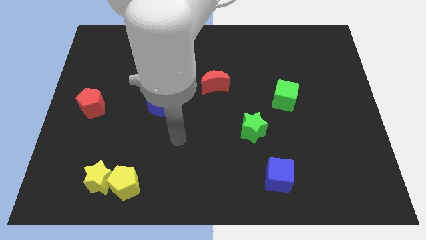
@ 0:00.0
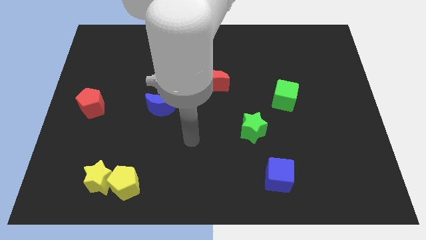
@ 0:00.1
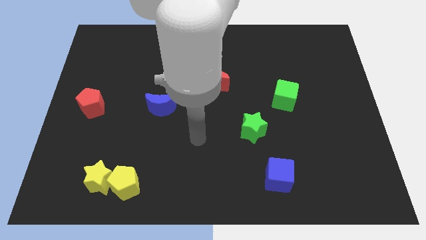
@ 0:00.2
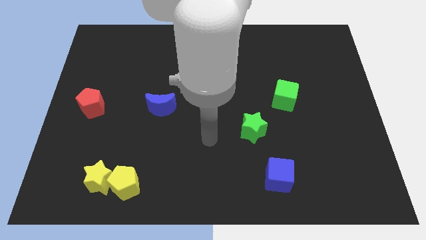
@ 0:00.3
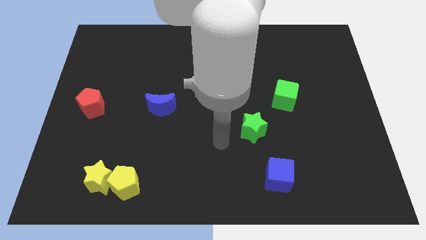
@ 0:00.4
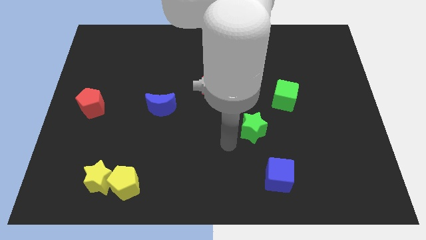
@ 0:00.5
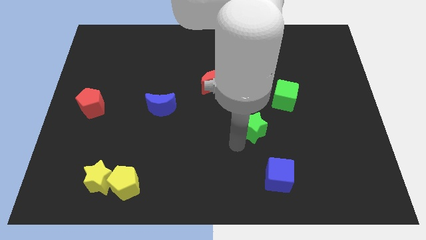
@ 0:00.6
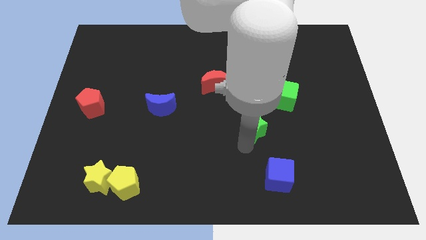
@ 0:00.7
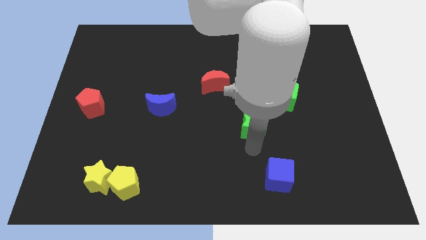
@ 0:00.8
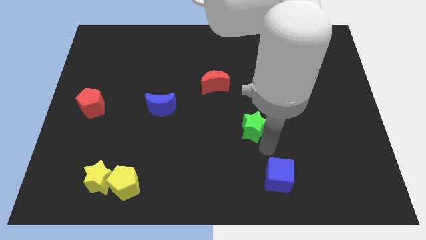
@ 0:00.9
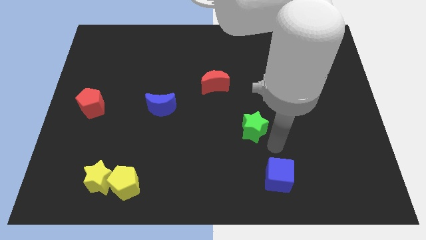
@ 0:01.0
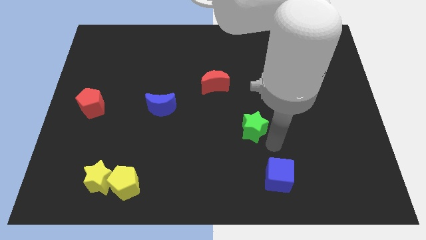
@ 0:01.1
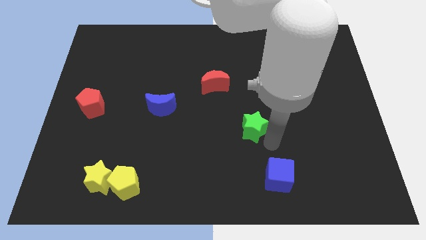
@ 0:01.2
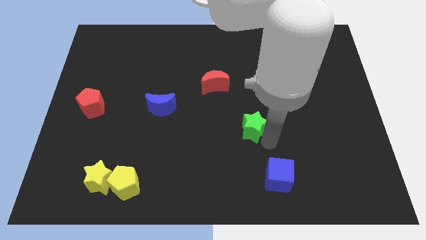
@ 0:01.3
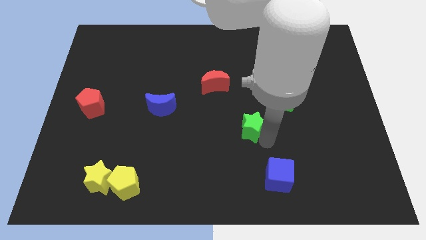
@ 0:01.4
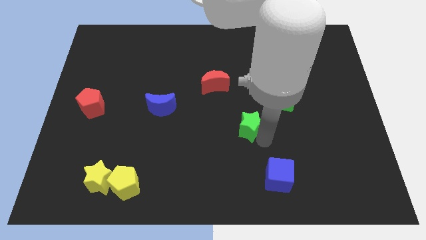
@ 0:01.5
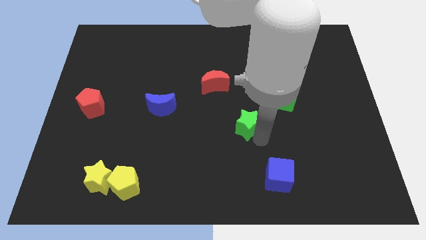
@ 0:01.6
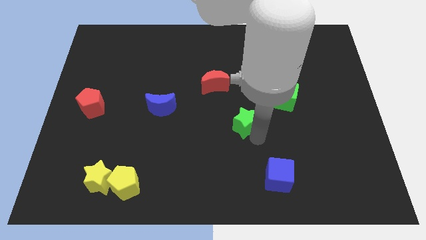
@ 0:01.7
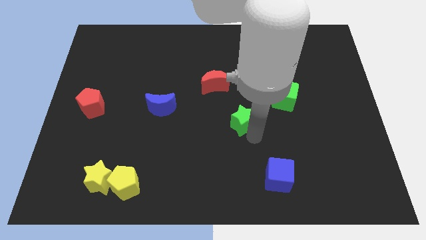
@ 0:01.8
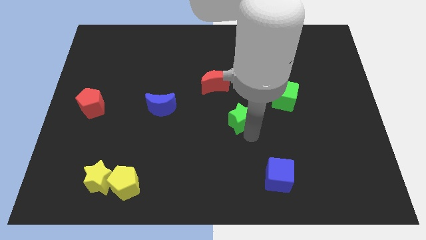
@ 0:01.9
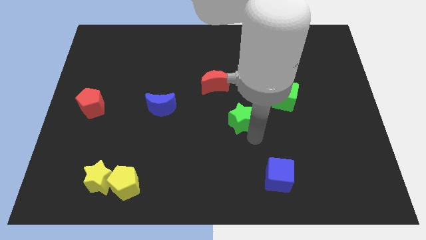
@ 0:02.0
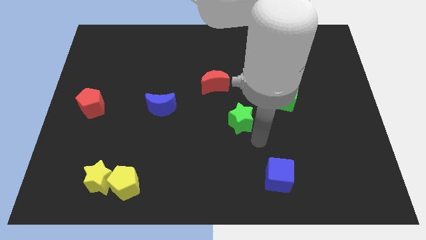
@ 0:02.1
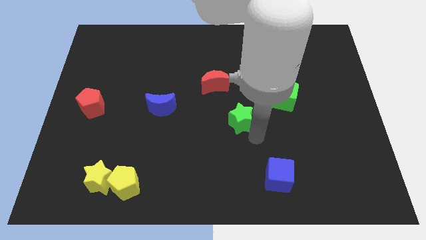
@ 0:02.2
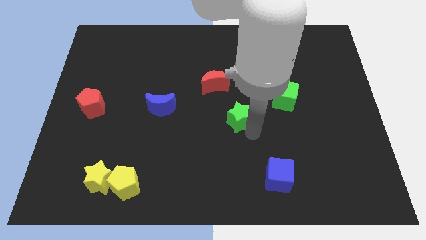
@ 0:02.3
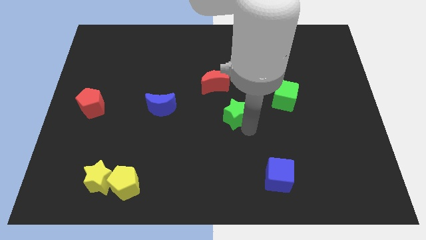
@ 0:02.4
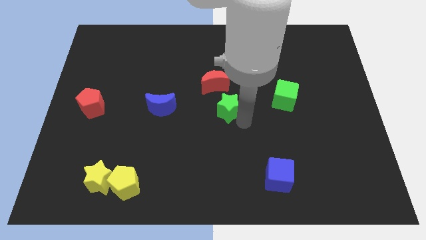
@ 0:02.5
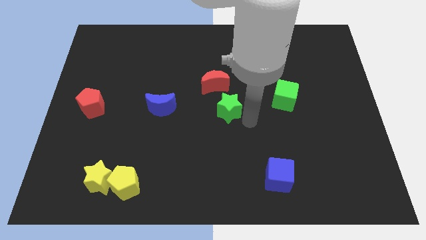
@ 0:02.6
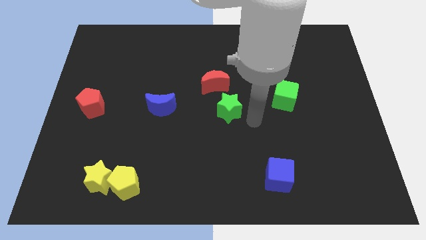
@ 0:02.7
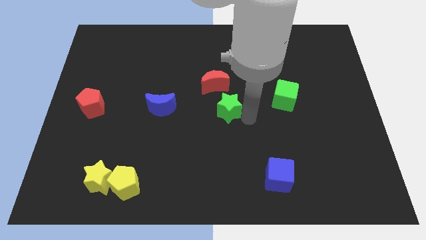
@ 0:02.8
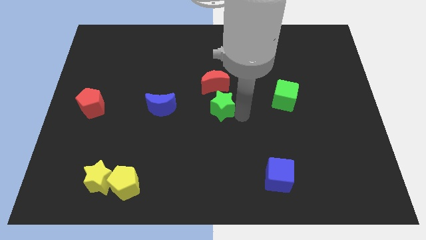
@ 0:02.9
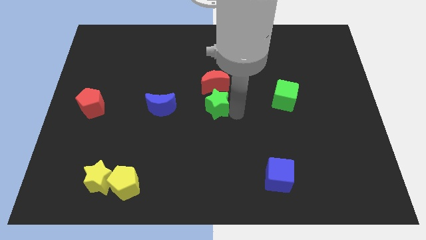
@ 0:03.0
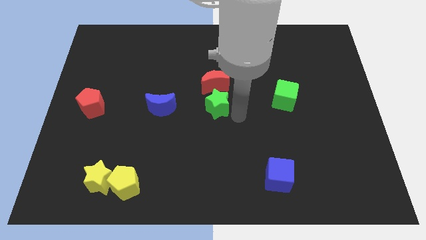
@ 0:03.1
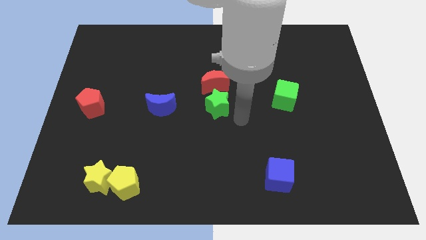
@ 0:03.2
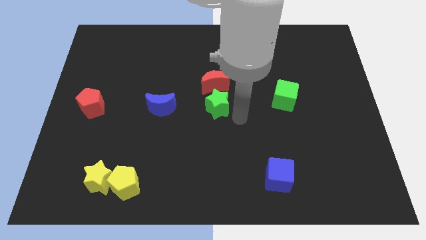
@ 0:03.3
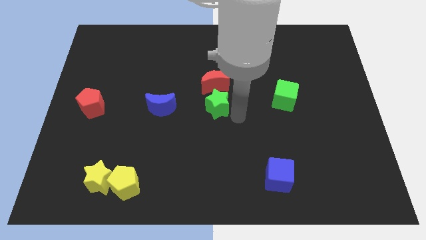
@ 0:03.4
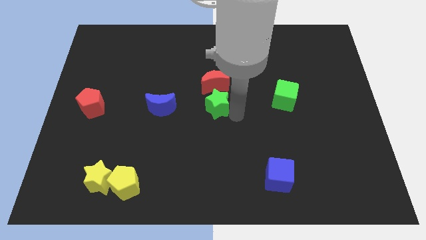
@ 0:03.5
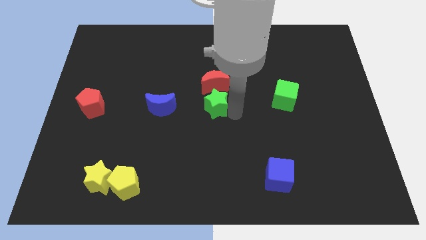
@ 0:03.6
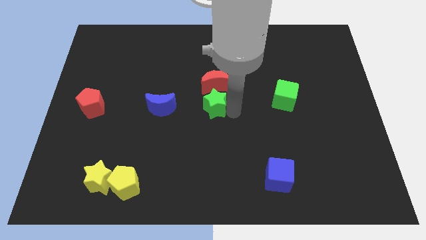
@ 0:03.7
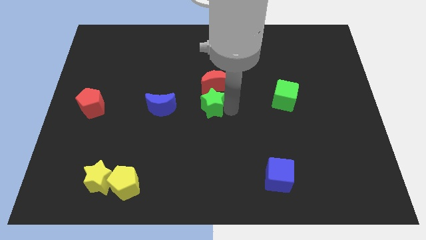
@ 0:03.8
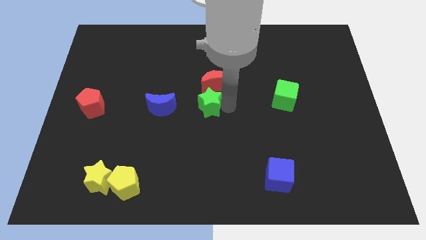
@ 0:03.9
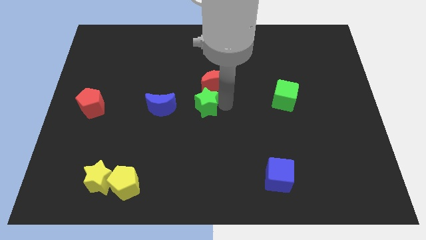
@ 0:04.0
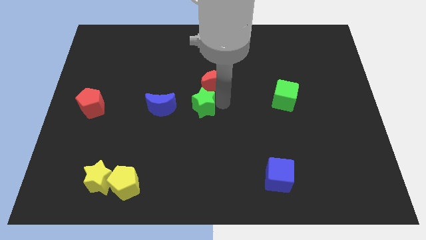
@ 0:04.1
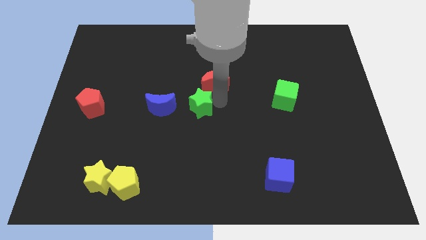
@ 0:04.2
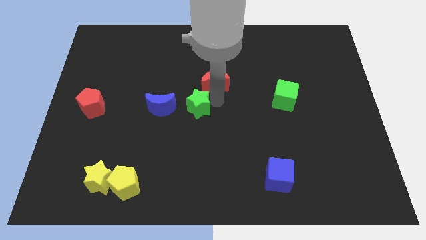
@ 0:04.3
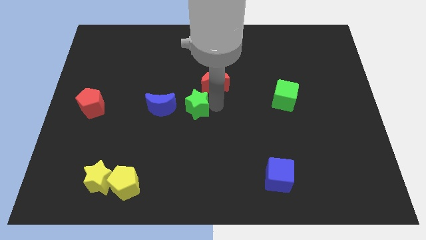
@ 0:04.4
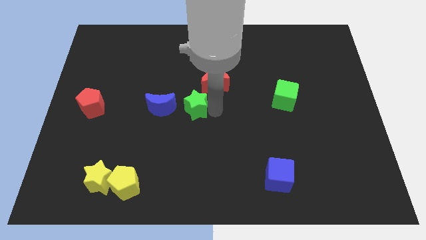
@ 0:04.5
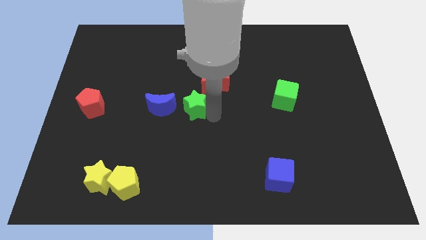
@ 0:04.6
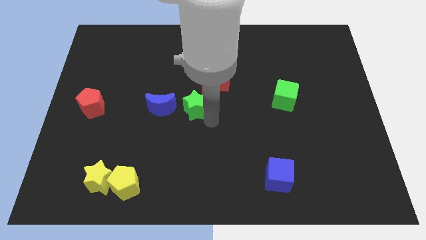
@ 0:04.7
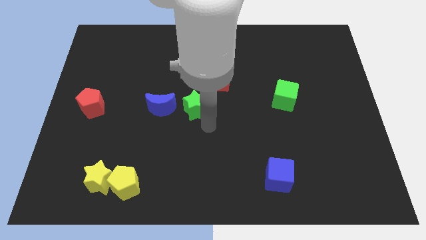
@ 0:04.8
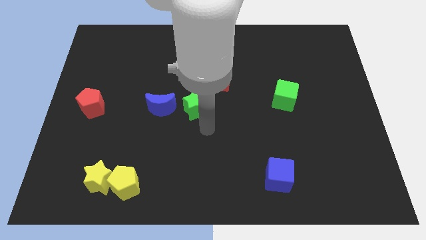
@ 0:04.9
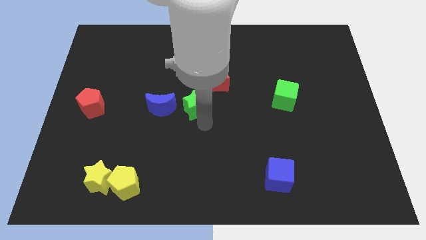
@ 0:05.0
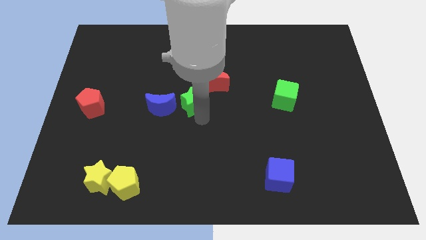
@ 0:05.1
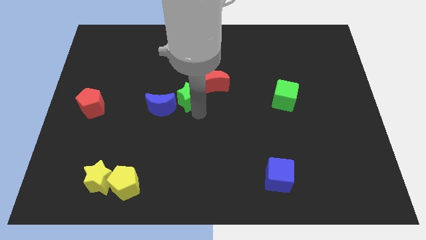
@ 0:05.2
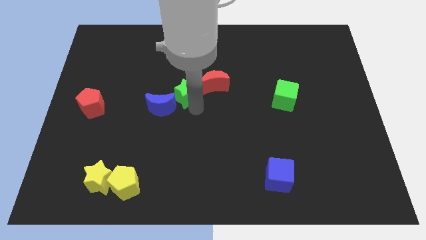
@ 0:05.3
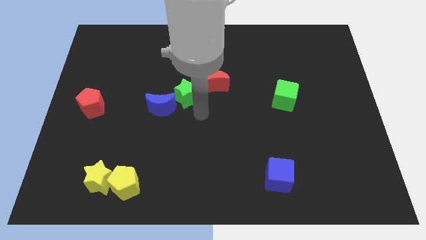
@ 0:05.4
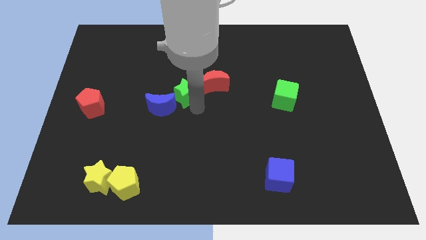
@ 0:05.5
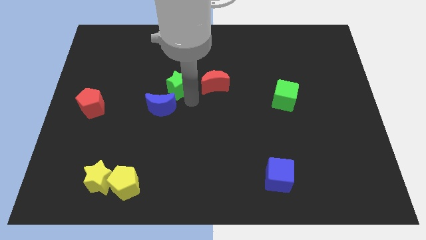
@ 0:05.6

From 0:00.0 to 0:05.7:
push the green star up and to the left diagonally

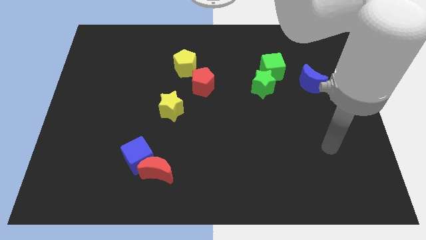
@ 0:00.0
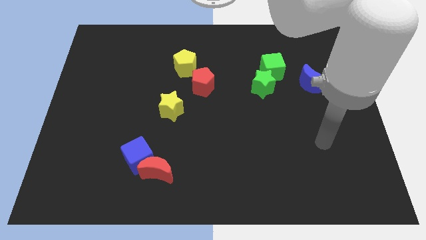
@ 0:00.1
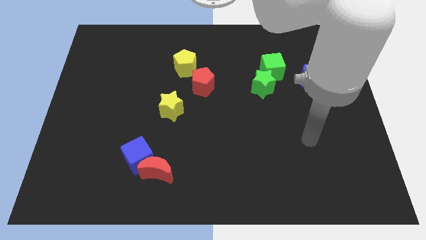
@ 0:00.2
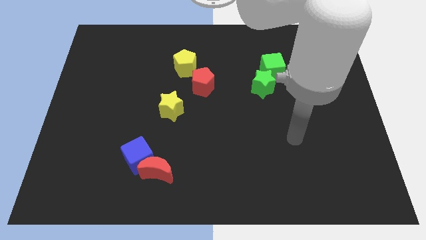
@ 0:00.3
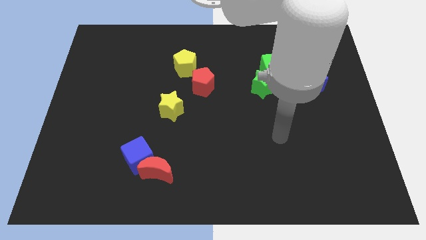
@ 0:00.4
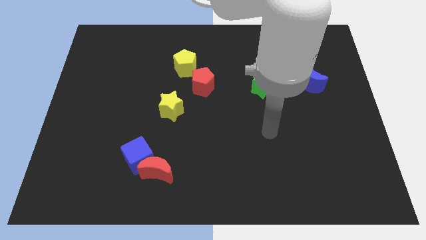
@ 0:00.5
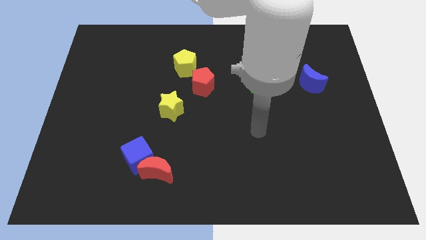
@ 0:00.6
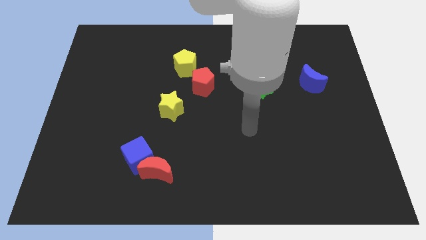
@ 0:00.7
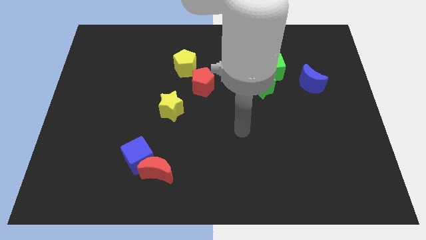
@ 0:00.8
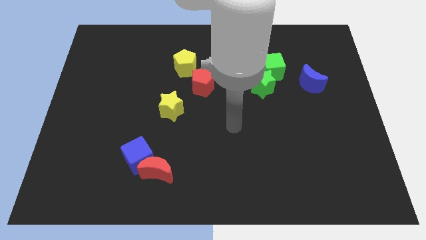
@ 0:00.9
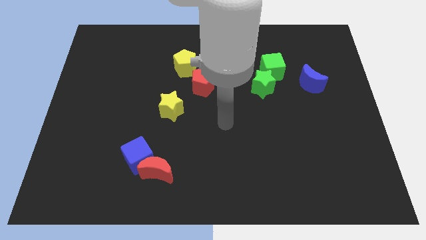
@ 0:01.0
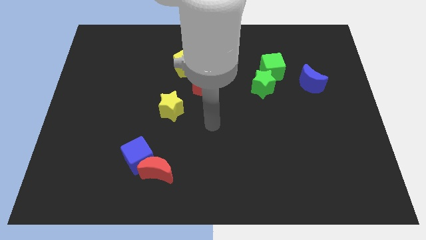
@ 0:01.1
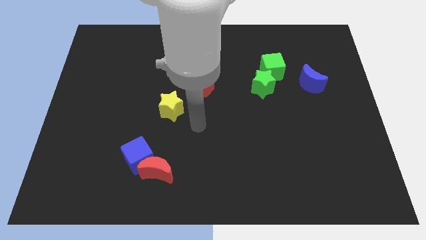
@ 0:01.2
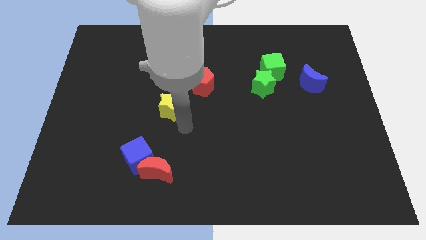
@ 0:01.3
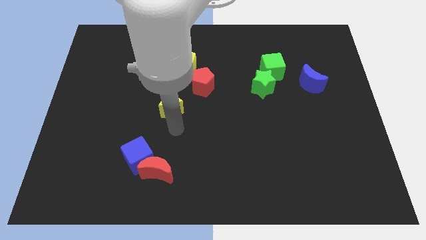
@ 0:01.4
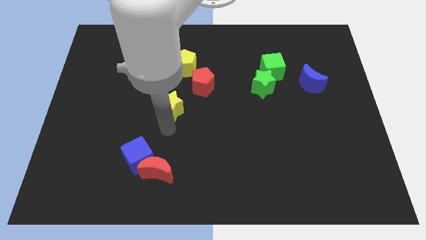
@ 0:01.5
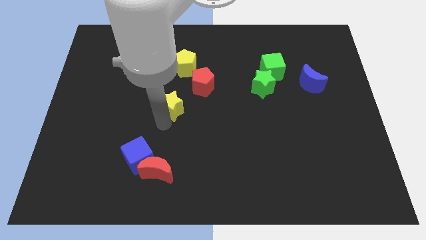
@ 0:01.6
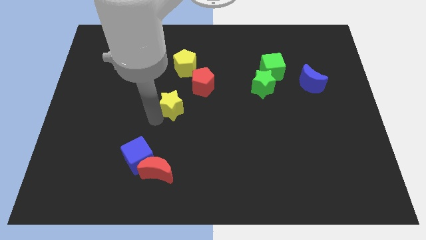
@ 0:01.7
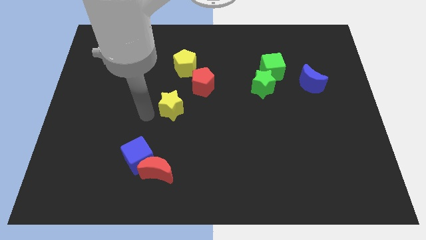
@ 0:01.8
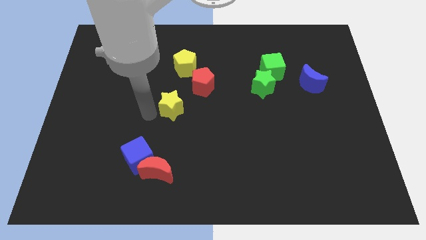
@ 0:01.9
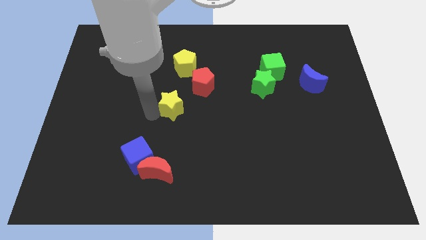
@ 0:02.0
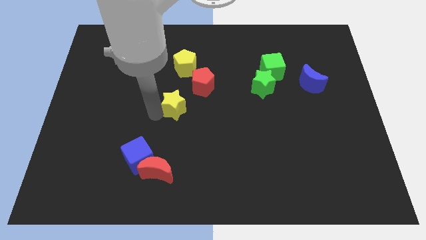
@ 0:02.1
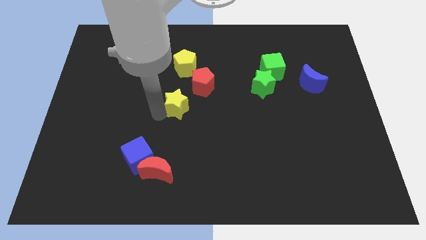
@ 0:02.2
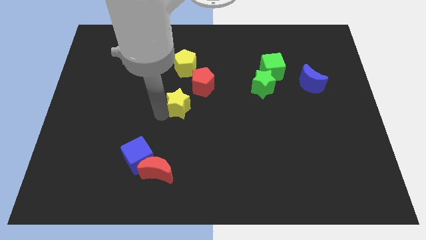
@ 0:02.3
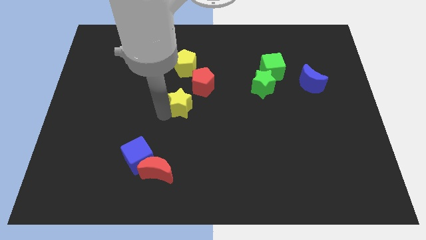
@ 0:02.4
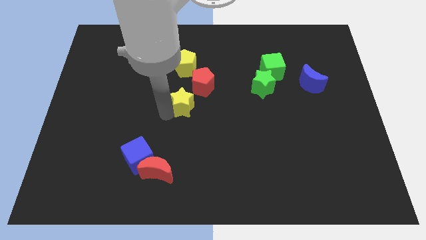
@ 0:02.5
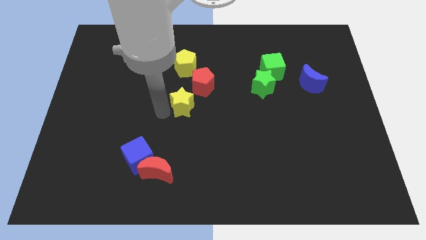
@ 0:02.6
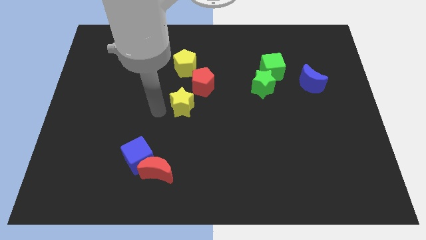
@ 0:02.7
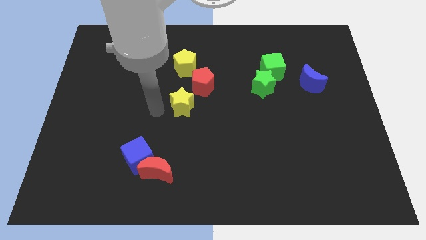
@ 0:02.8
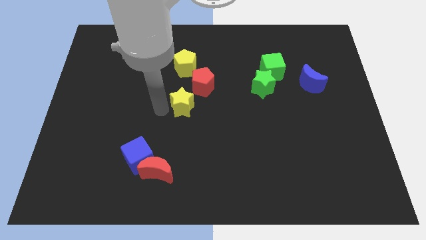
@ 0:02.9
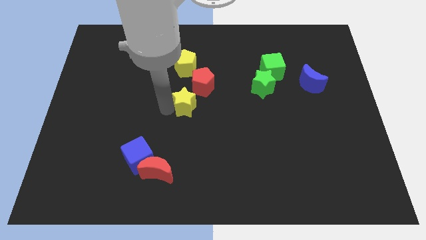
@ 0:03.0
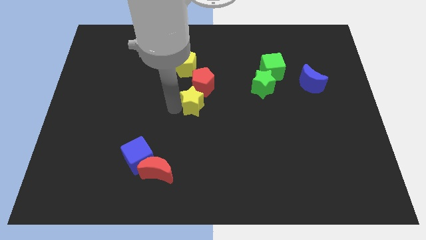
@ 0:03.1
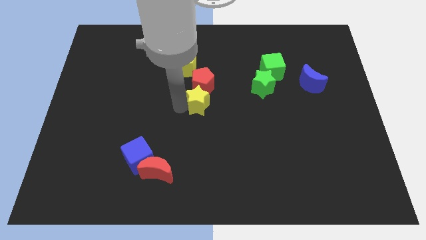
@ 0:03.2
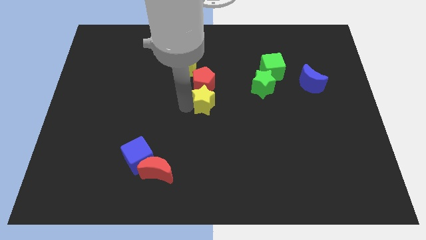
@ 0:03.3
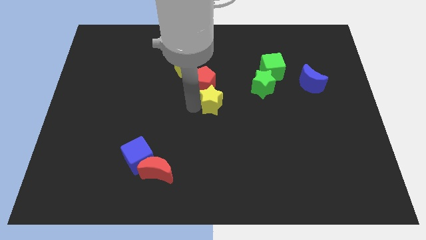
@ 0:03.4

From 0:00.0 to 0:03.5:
move the yellow star a little bit upwards and then right
